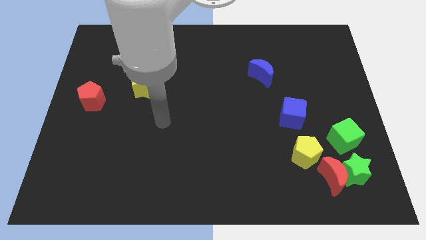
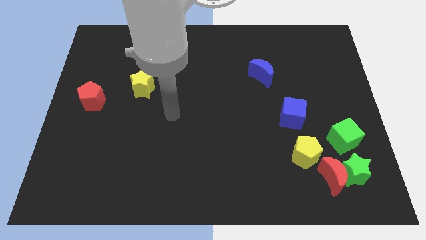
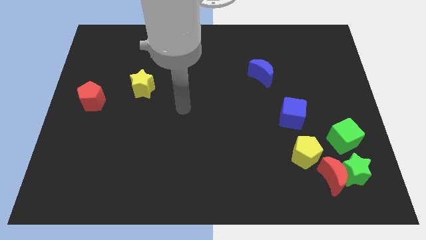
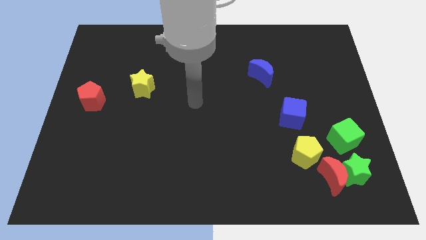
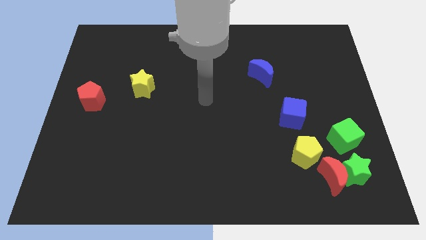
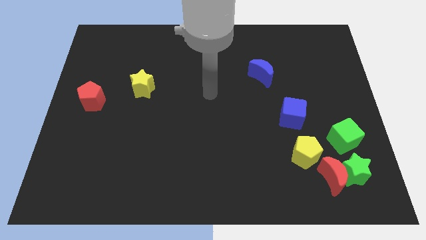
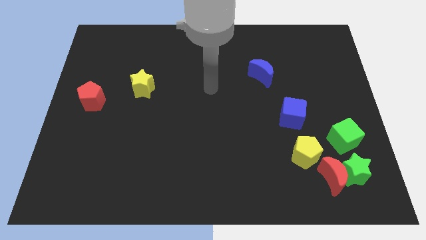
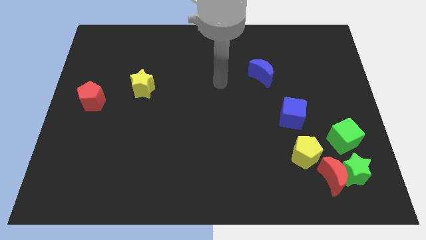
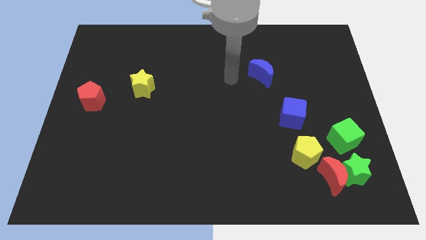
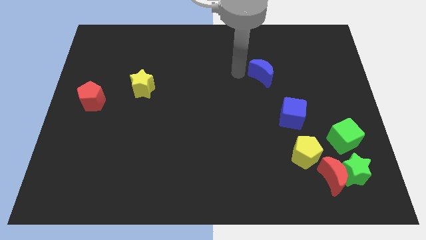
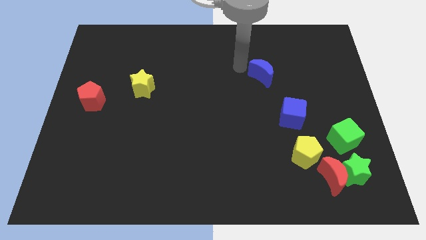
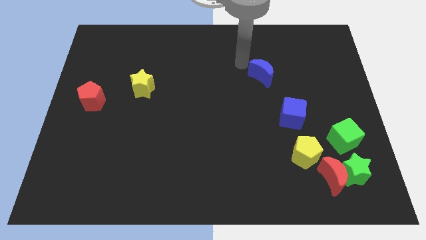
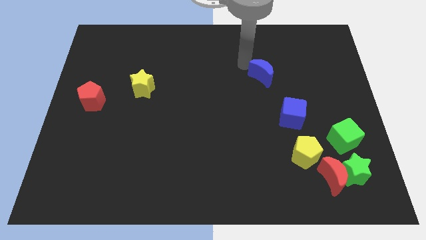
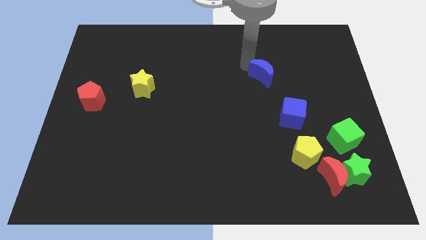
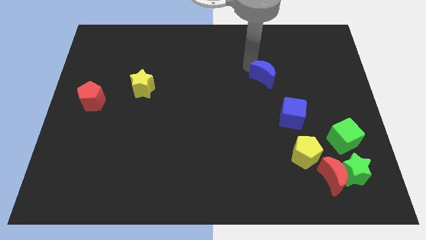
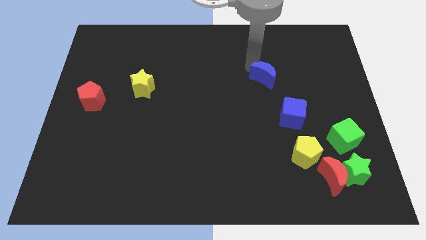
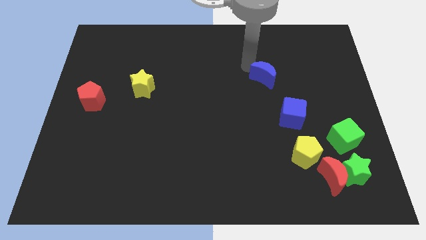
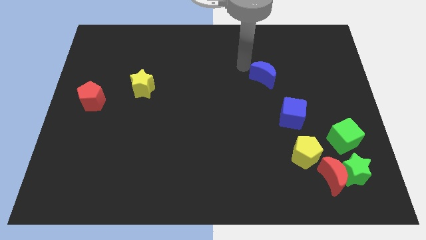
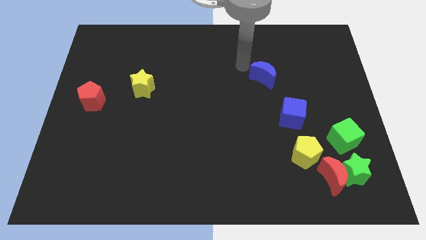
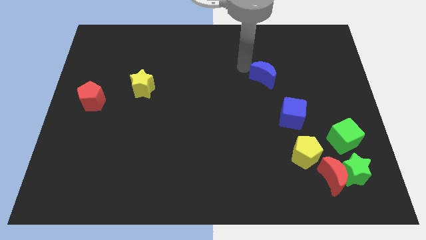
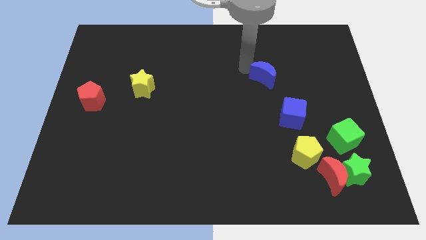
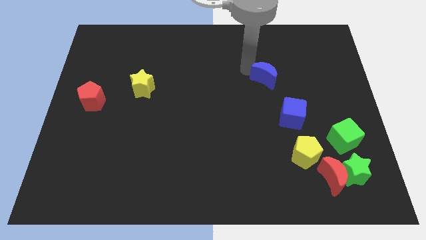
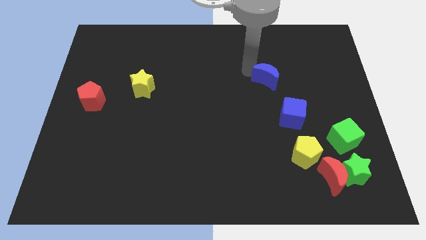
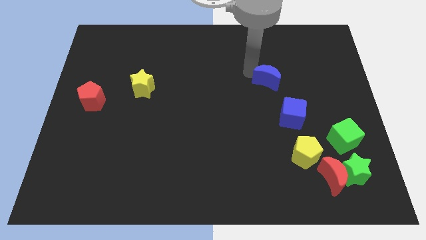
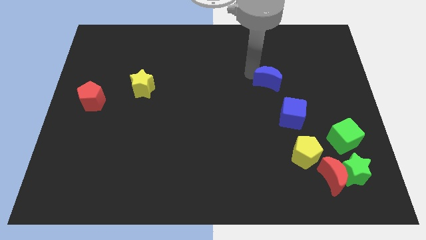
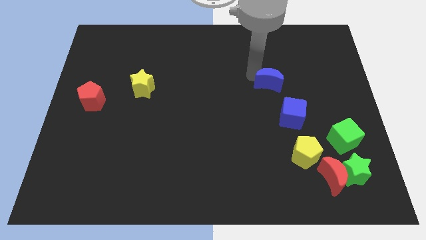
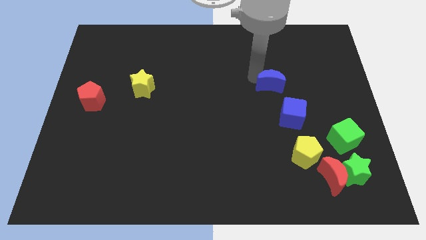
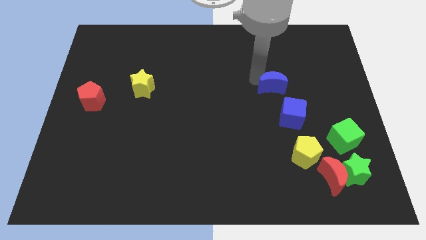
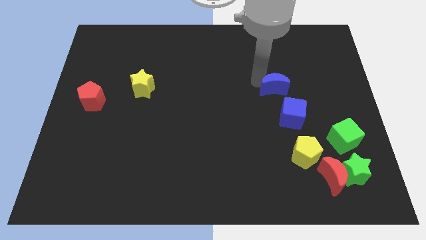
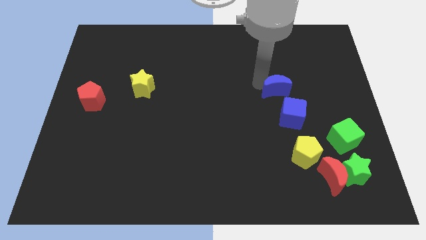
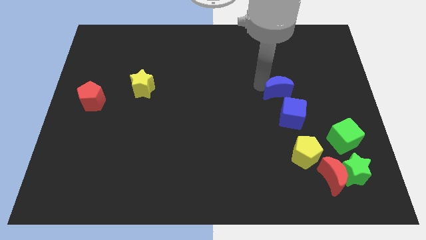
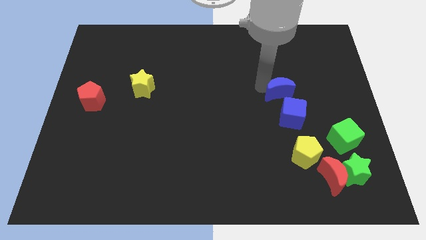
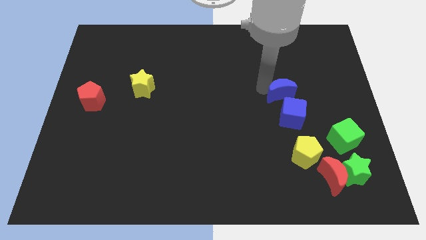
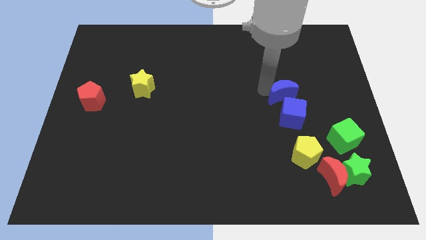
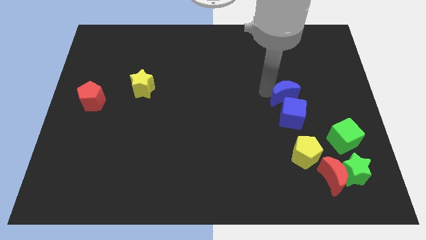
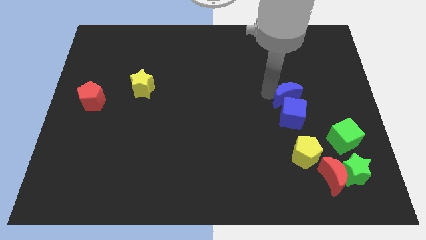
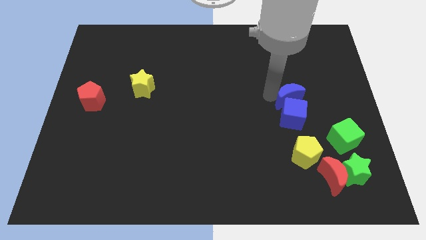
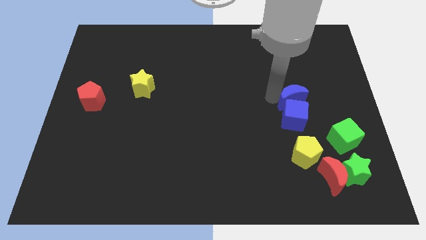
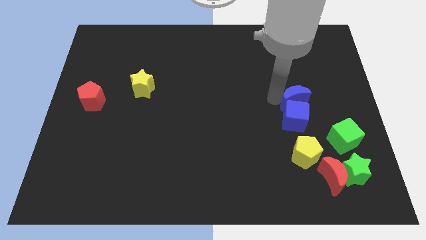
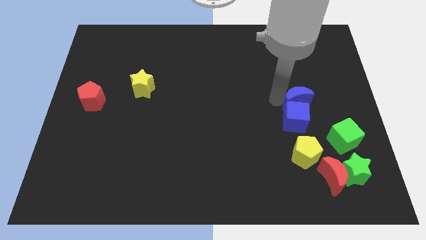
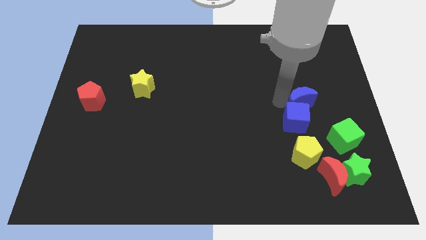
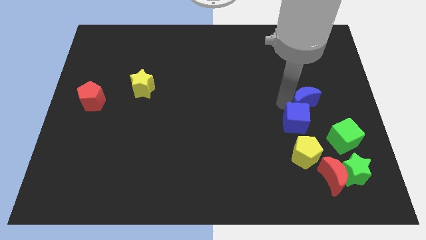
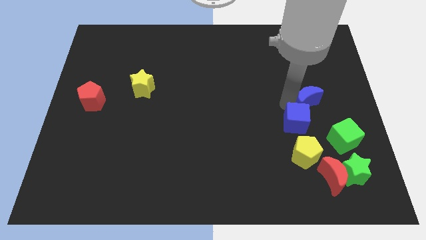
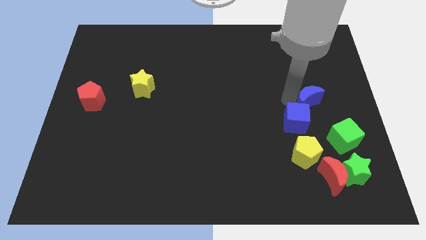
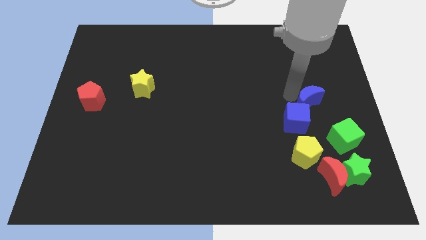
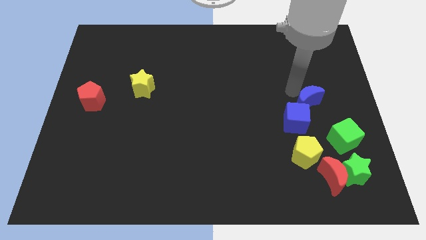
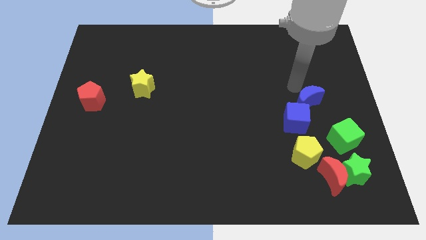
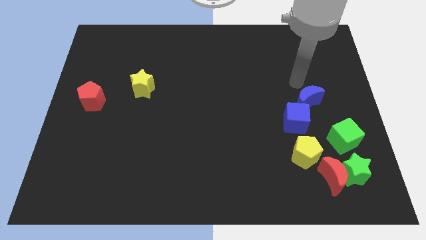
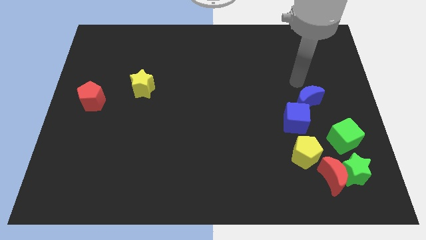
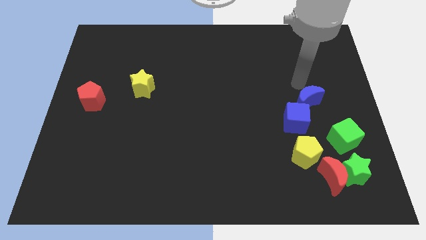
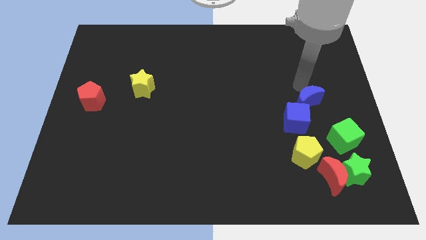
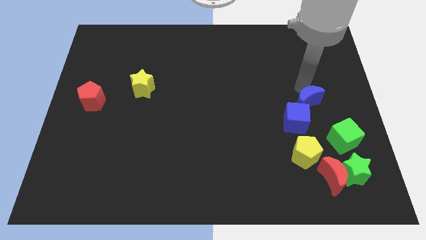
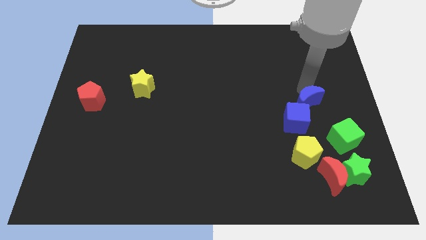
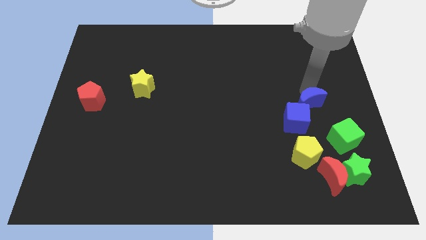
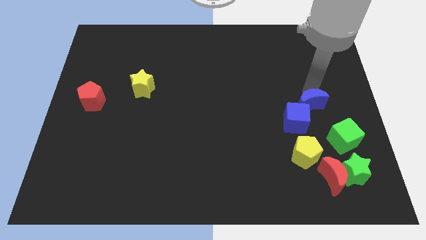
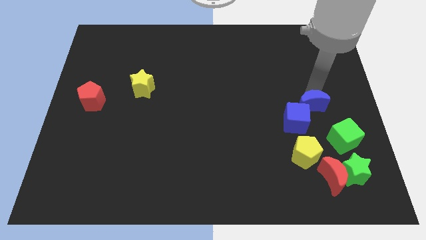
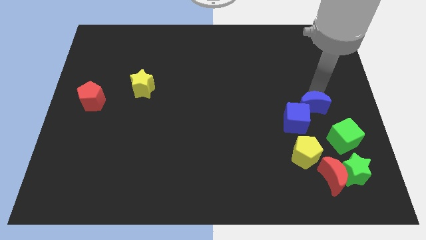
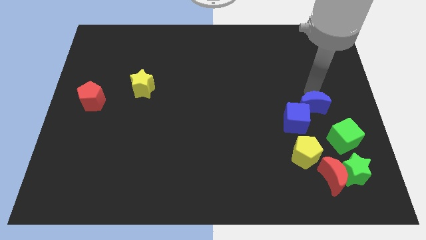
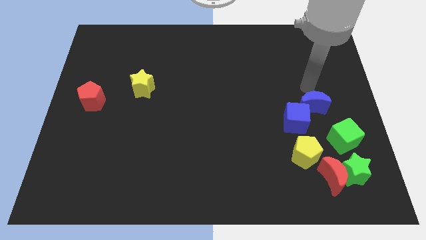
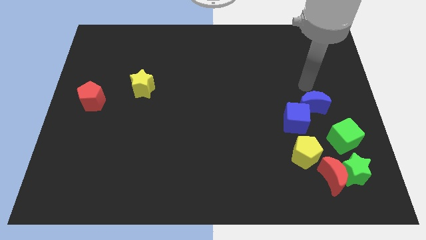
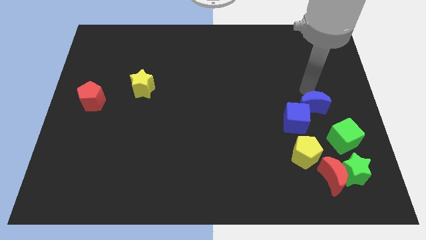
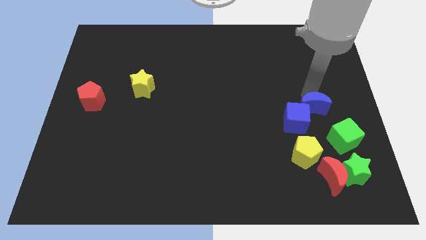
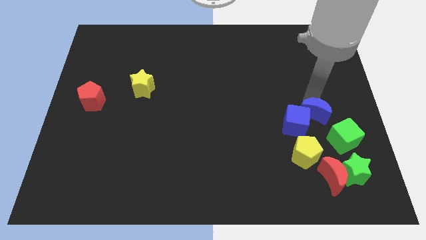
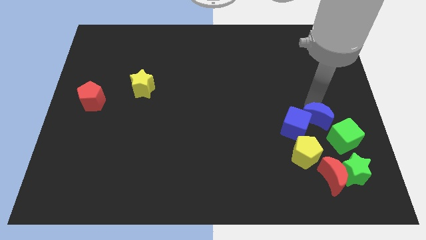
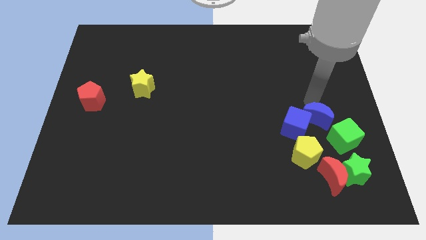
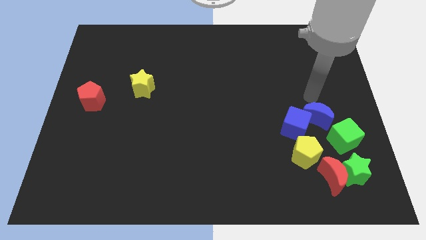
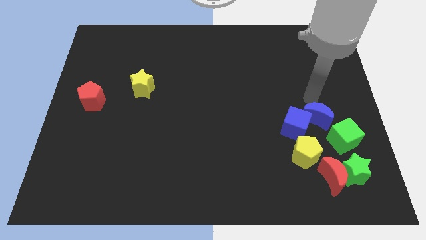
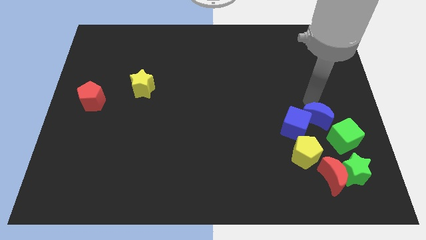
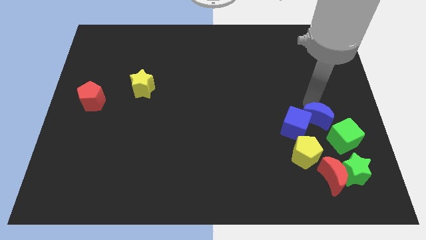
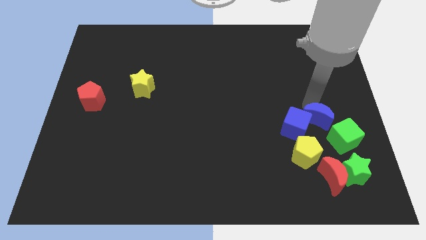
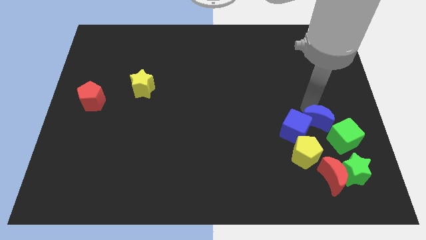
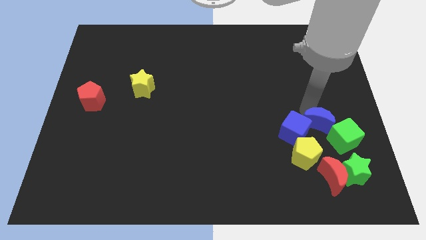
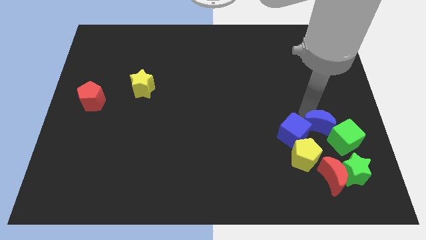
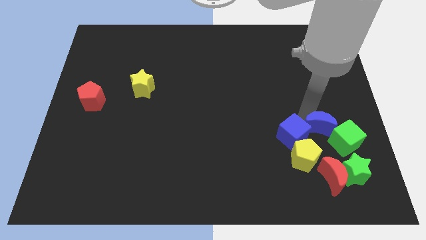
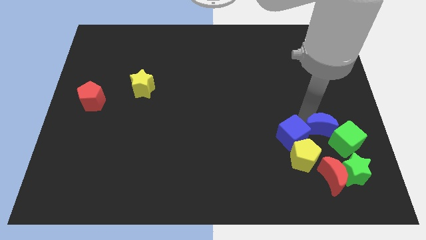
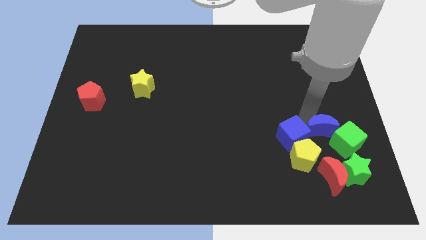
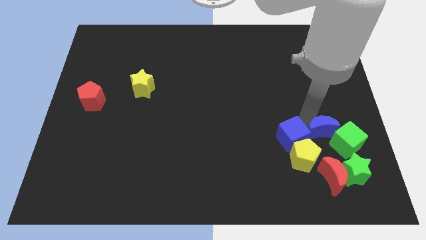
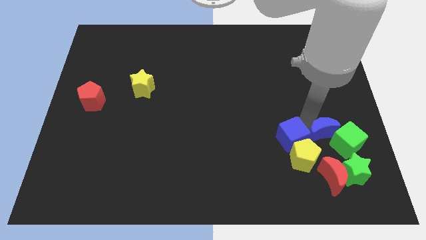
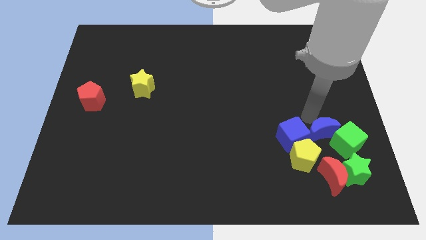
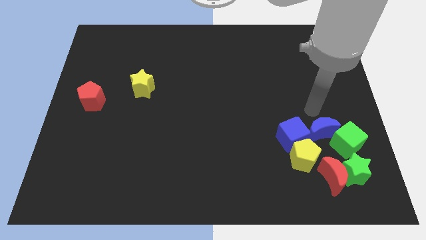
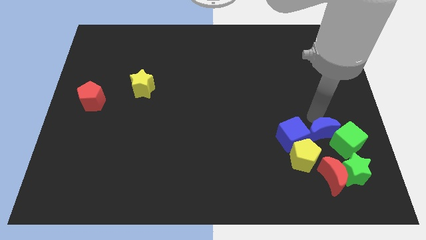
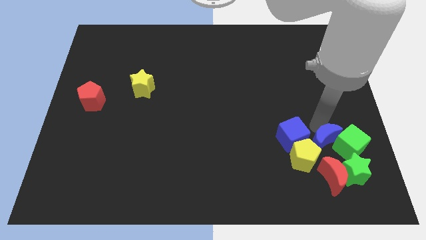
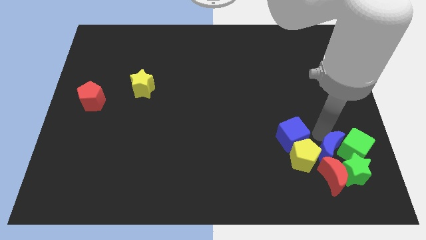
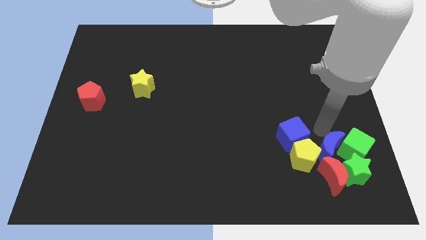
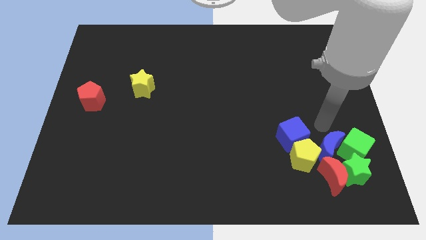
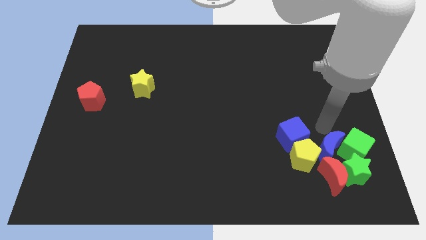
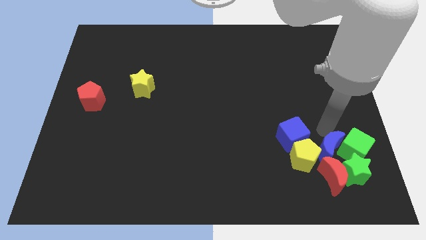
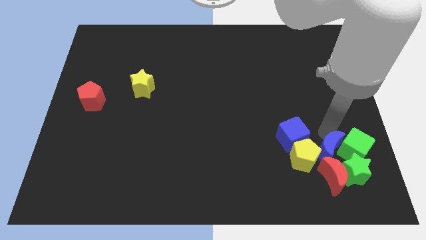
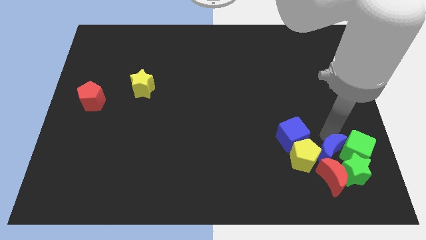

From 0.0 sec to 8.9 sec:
push the blue moon towards the red moon
